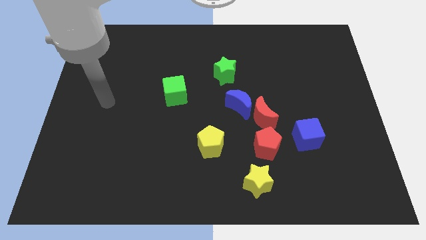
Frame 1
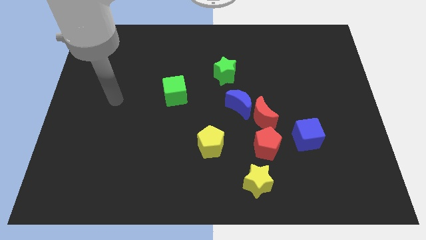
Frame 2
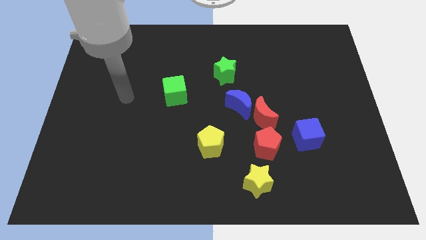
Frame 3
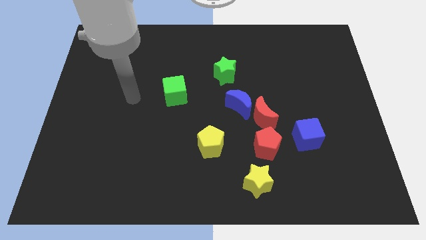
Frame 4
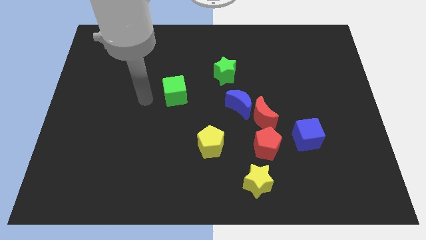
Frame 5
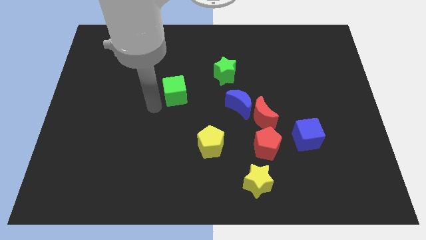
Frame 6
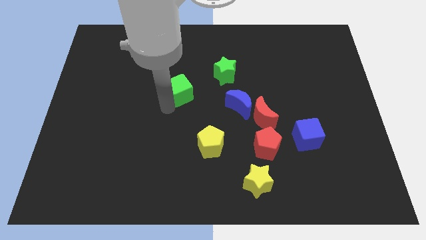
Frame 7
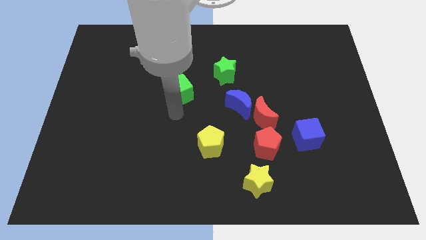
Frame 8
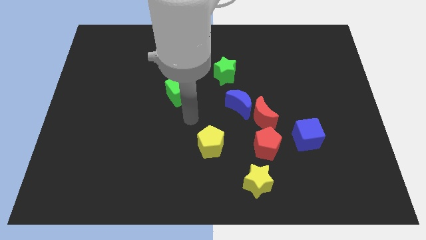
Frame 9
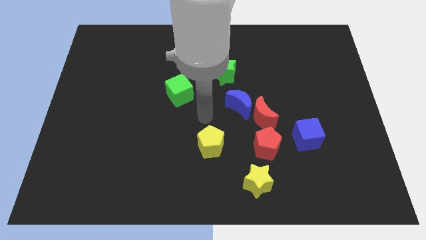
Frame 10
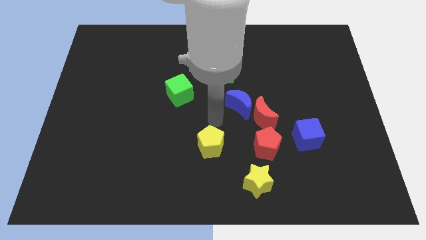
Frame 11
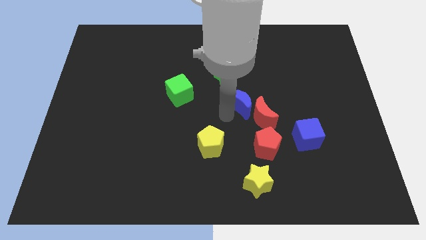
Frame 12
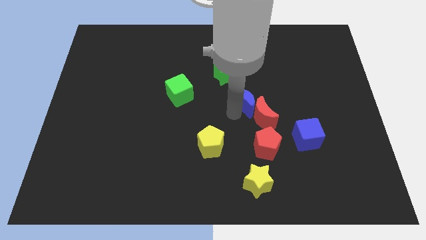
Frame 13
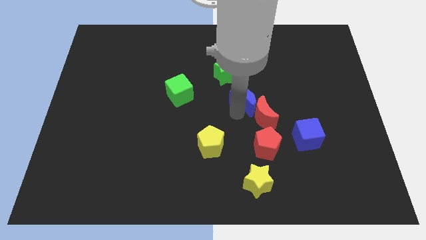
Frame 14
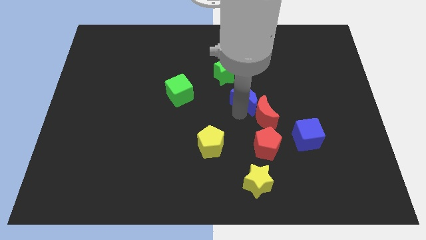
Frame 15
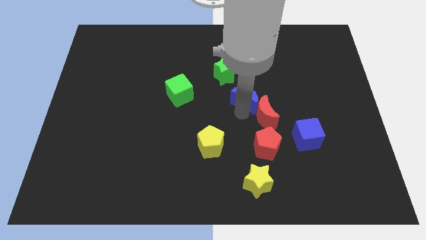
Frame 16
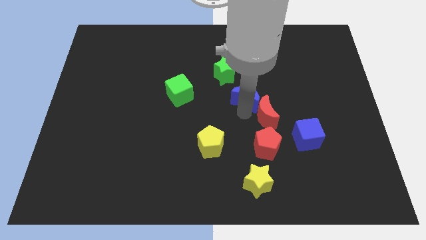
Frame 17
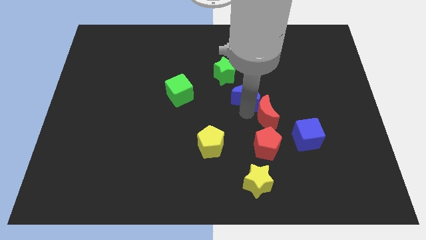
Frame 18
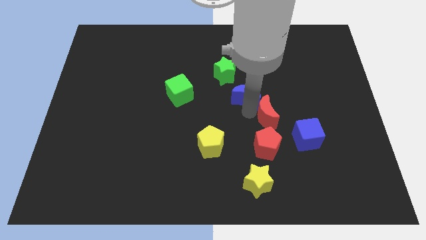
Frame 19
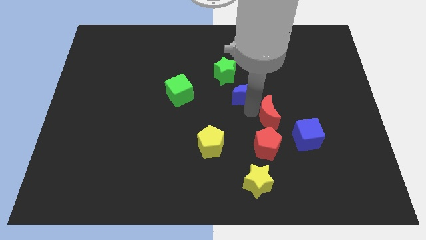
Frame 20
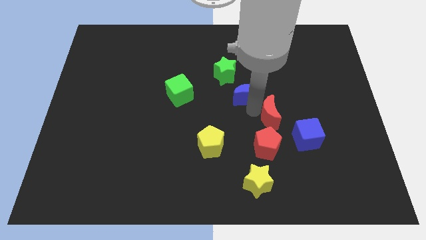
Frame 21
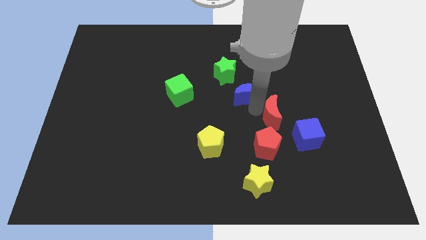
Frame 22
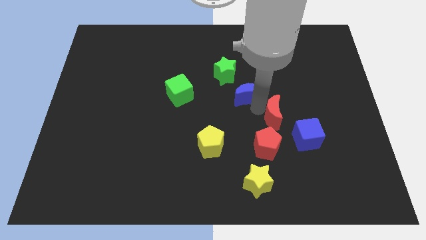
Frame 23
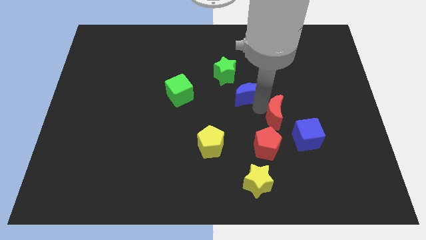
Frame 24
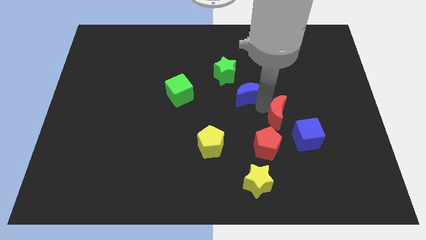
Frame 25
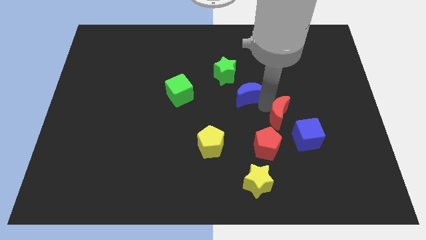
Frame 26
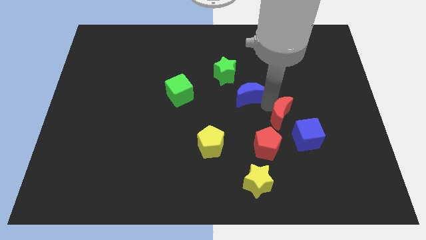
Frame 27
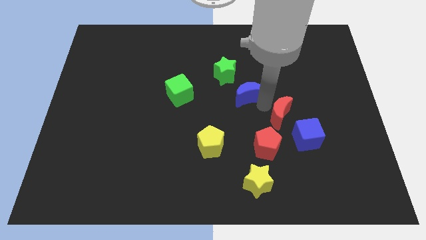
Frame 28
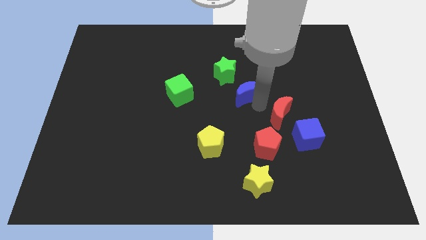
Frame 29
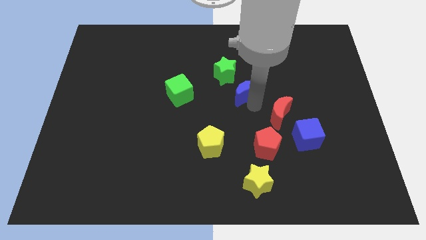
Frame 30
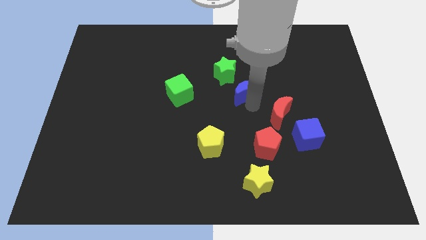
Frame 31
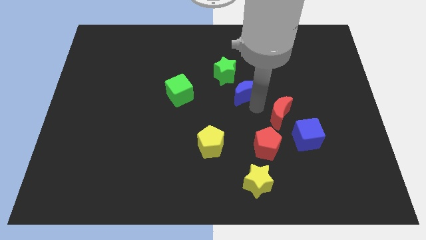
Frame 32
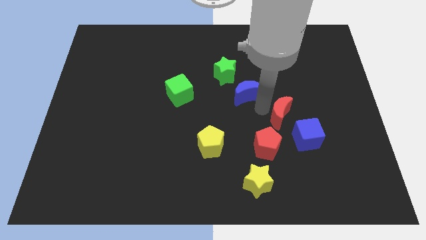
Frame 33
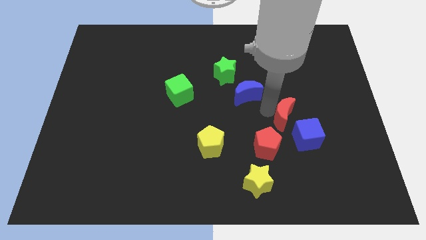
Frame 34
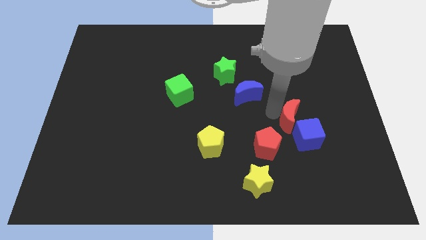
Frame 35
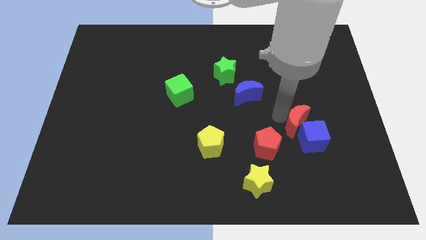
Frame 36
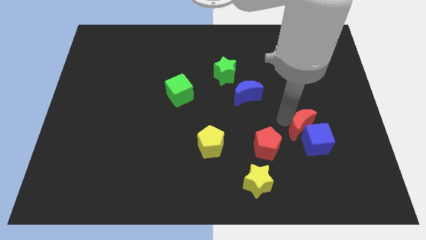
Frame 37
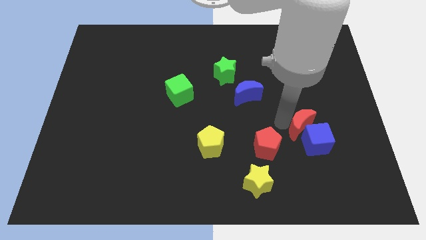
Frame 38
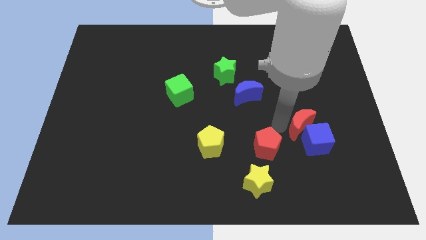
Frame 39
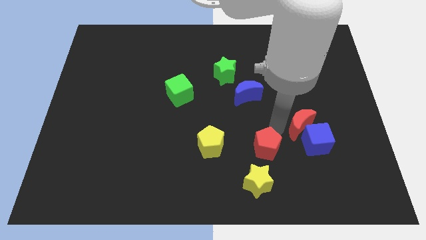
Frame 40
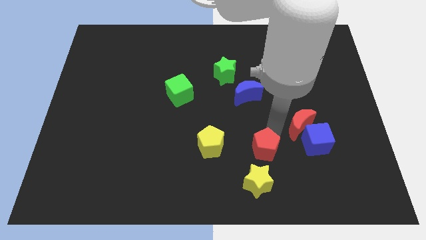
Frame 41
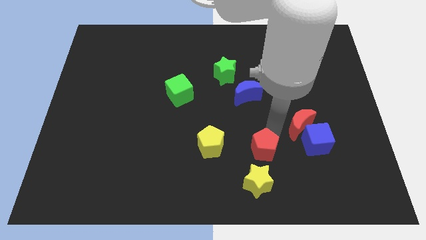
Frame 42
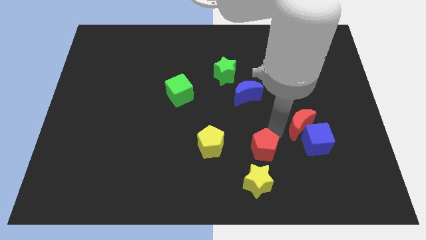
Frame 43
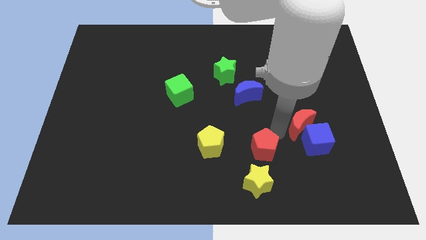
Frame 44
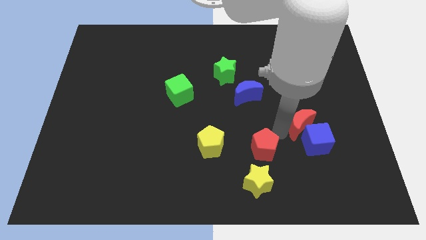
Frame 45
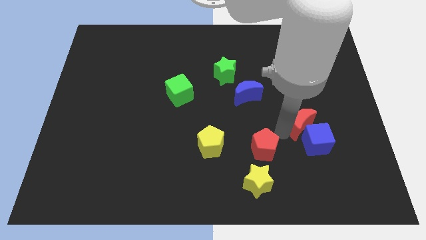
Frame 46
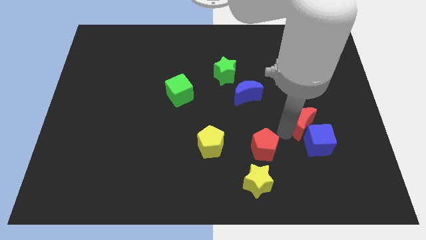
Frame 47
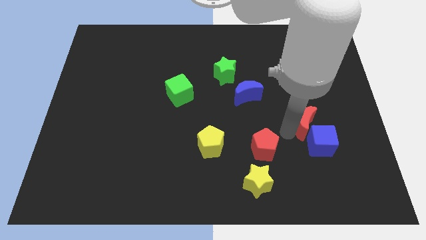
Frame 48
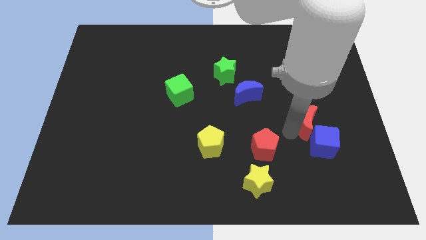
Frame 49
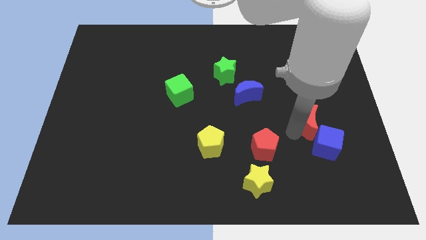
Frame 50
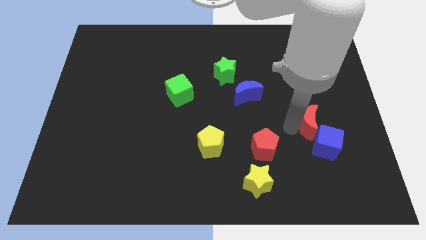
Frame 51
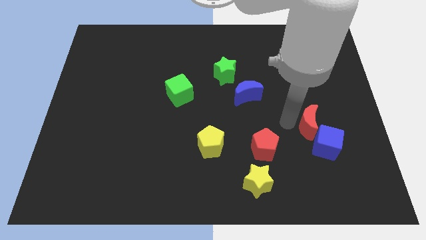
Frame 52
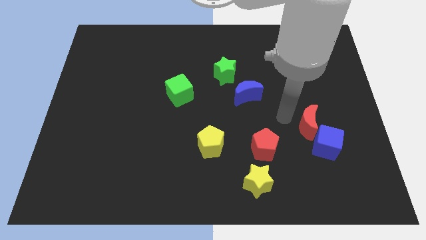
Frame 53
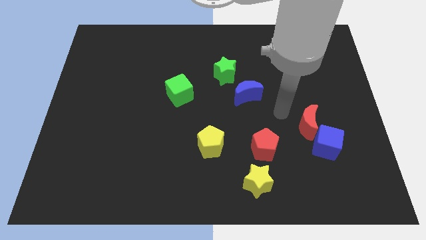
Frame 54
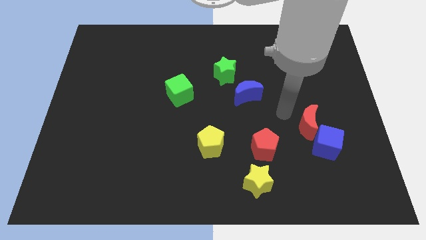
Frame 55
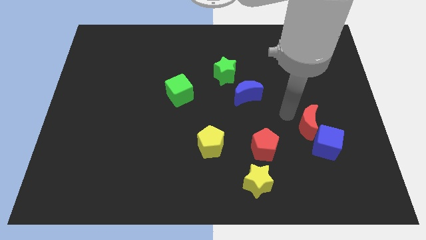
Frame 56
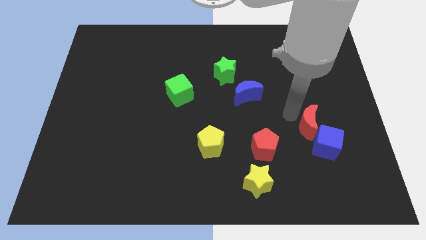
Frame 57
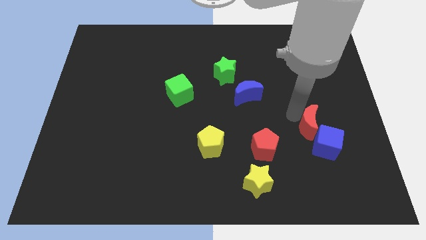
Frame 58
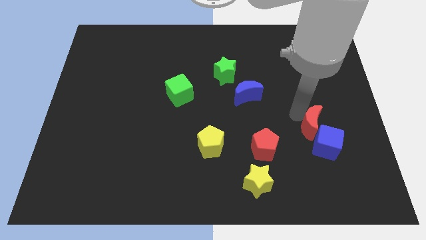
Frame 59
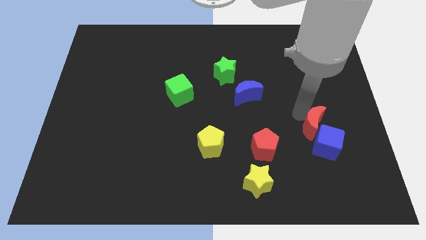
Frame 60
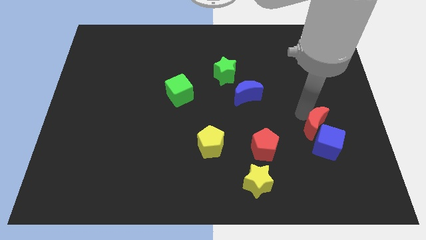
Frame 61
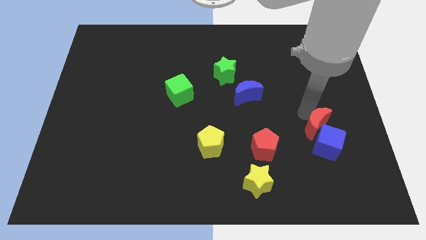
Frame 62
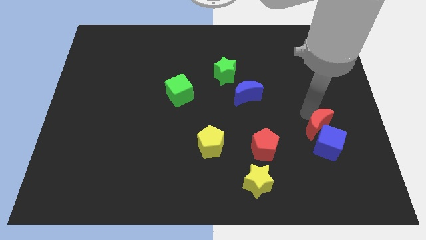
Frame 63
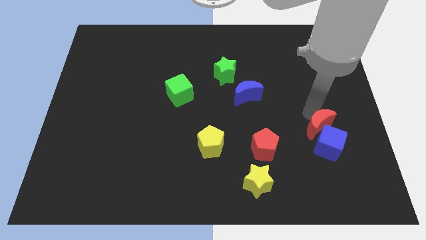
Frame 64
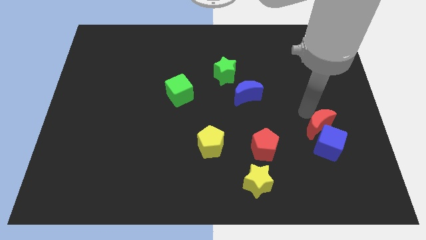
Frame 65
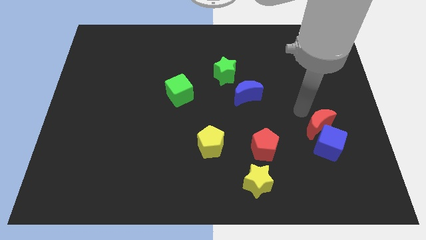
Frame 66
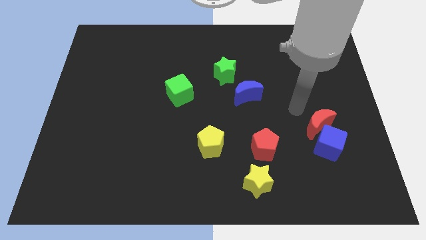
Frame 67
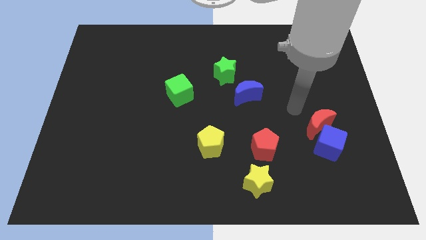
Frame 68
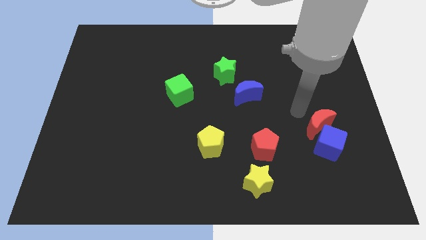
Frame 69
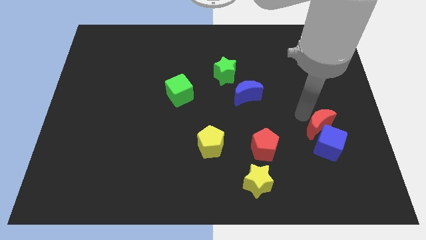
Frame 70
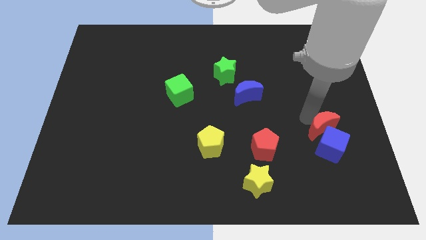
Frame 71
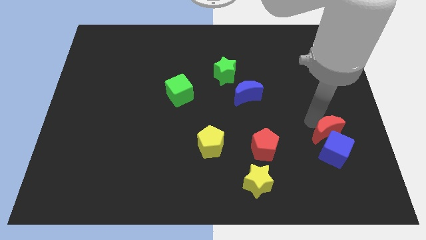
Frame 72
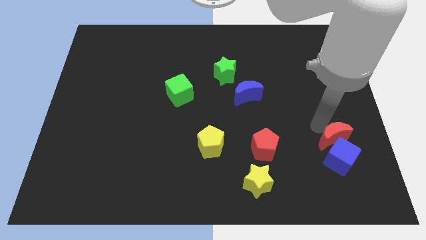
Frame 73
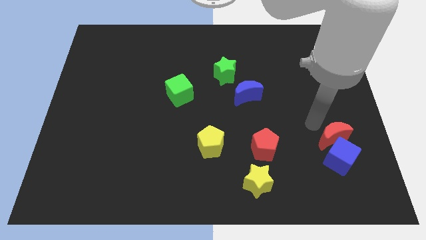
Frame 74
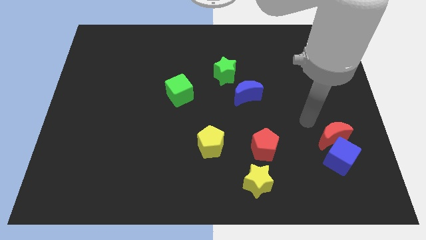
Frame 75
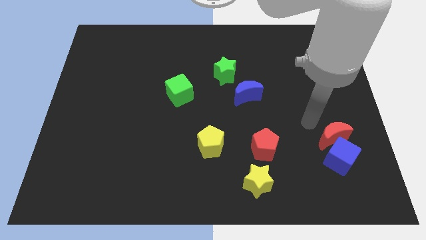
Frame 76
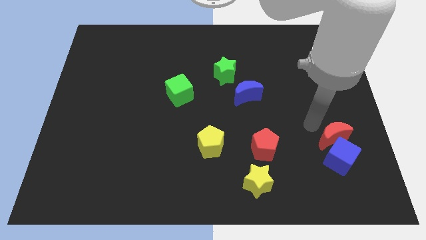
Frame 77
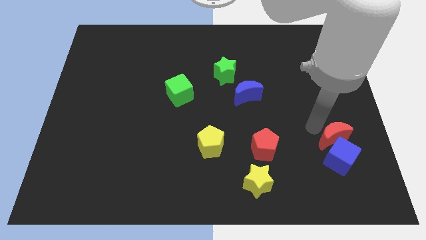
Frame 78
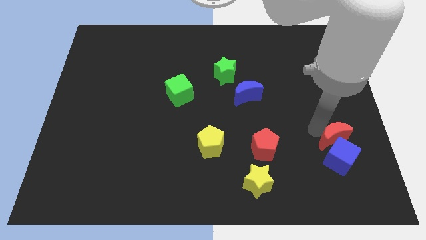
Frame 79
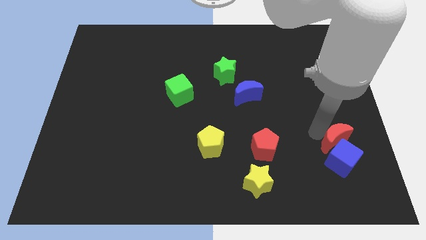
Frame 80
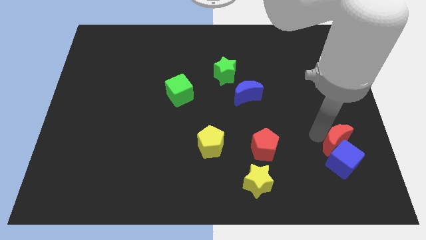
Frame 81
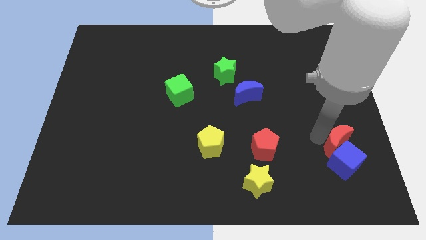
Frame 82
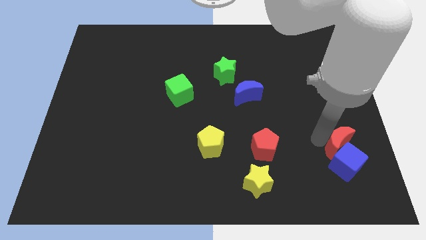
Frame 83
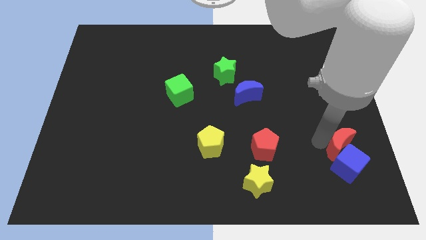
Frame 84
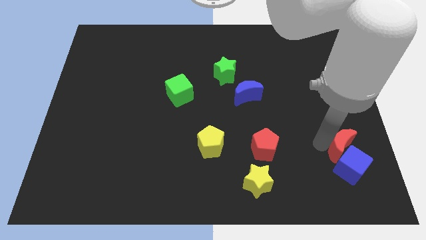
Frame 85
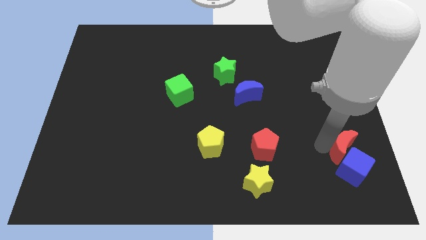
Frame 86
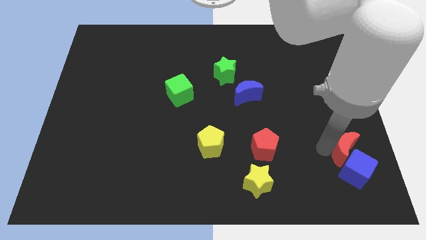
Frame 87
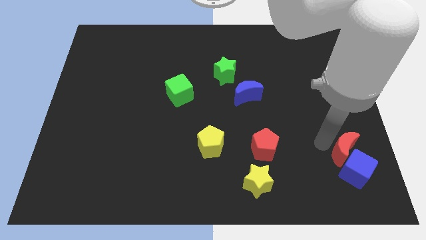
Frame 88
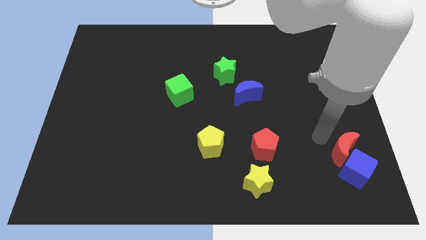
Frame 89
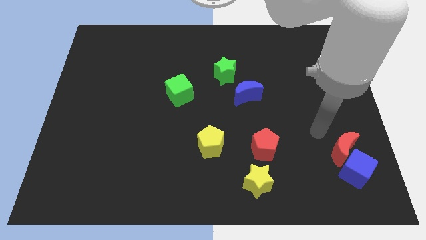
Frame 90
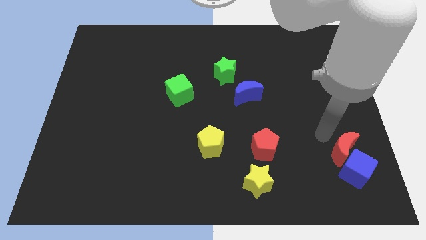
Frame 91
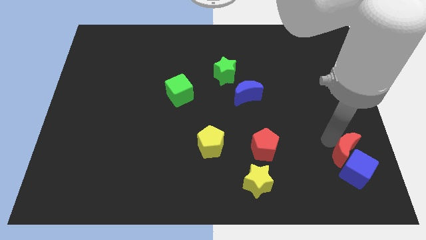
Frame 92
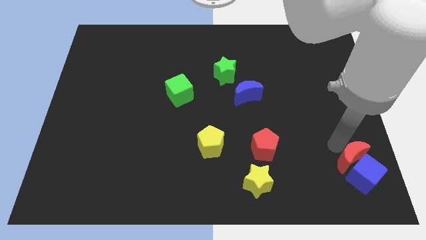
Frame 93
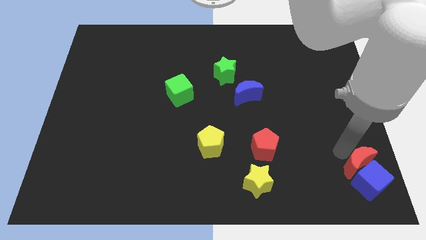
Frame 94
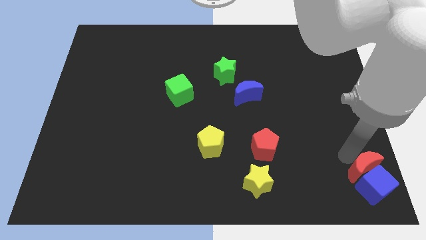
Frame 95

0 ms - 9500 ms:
slide the red moon to the lower right corner
